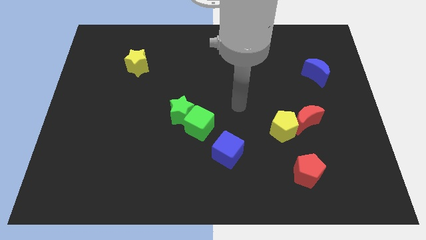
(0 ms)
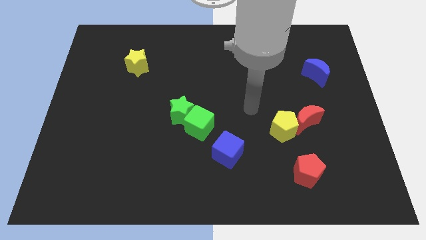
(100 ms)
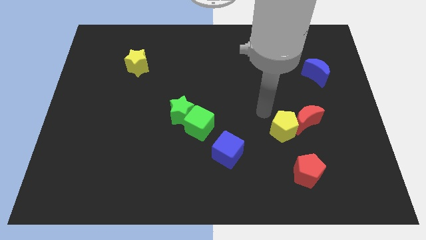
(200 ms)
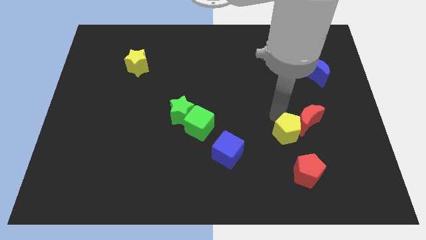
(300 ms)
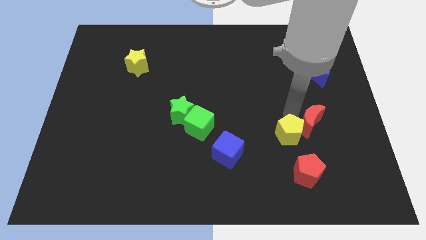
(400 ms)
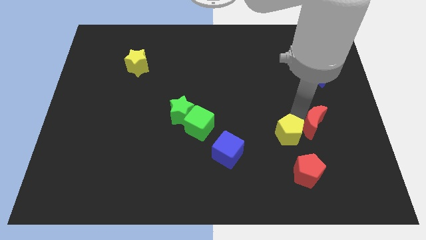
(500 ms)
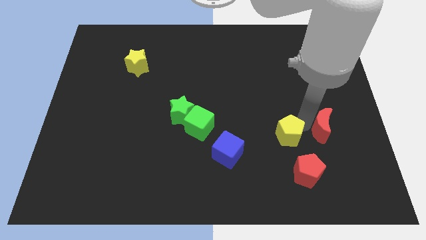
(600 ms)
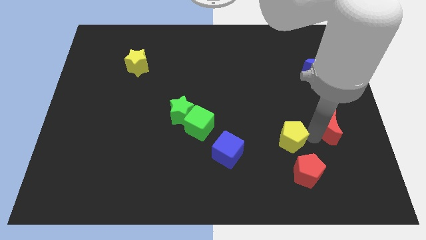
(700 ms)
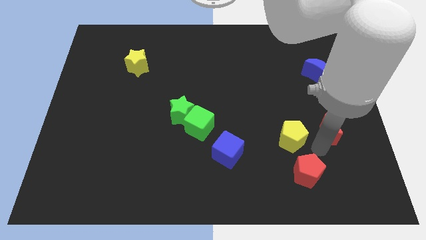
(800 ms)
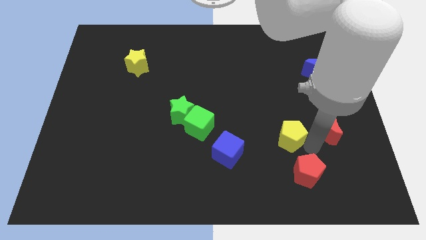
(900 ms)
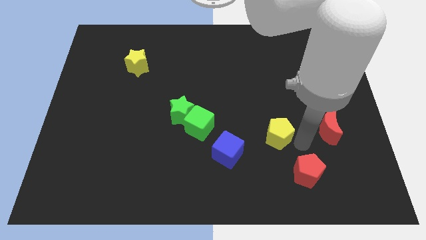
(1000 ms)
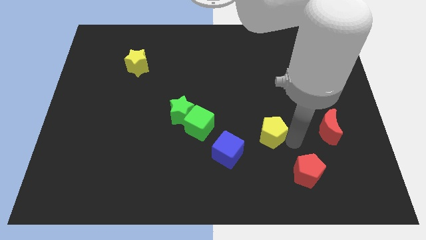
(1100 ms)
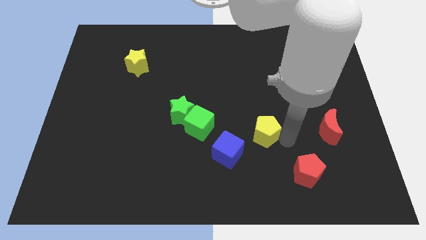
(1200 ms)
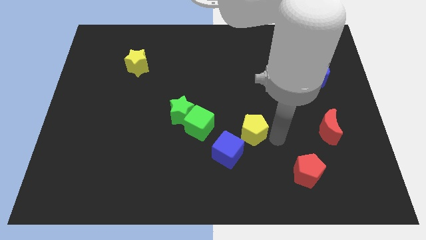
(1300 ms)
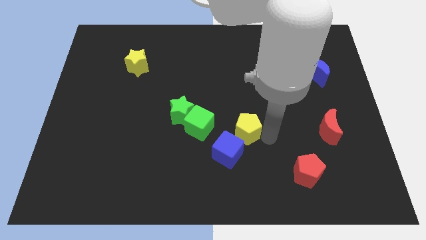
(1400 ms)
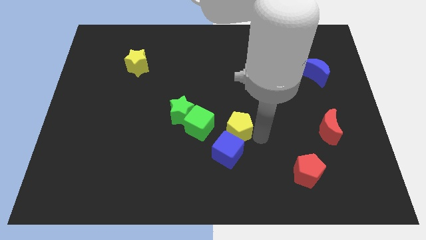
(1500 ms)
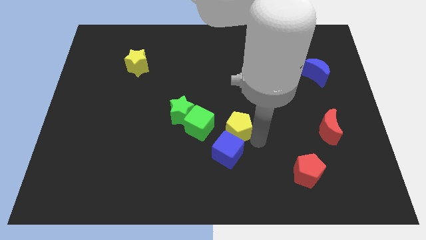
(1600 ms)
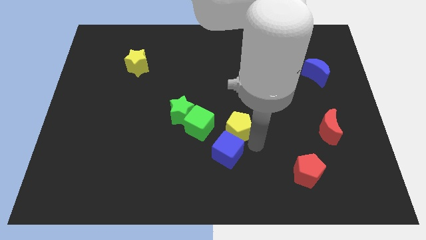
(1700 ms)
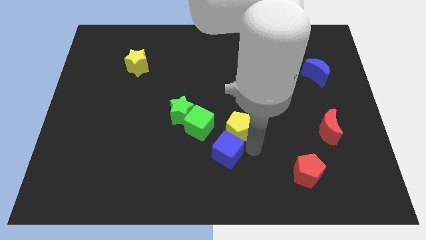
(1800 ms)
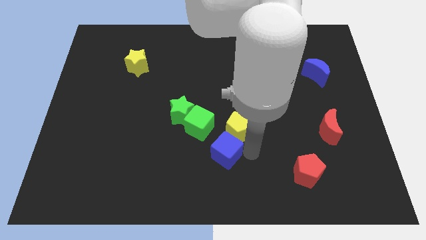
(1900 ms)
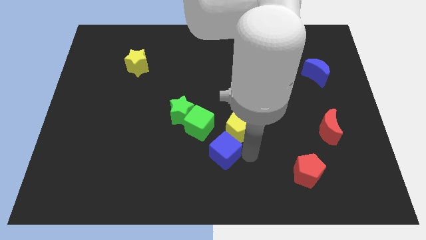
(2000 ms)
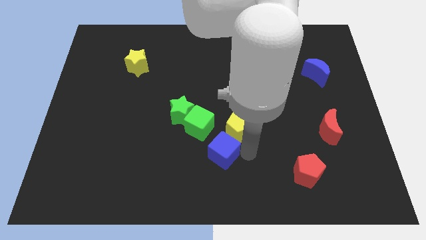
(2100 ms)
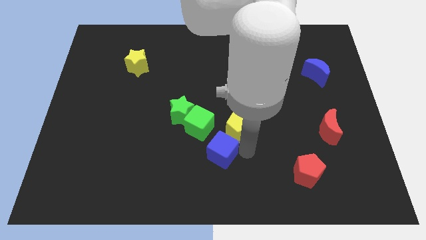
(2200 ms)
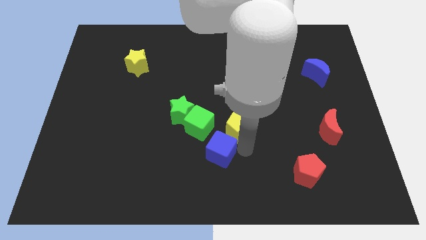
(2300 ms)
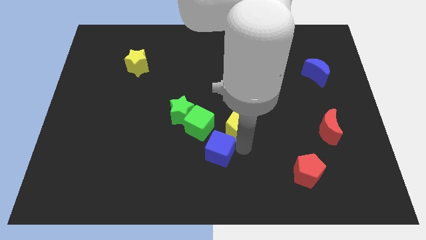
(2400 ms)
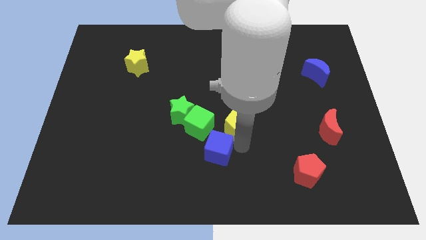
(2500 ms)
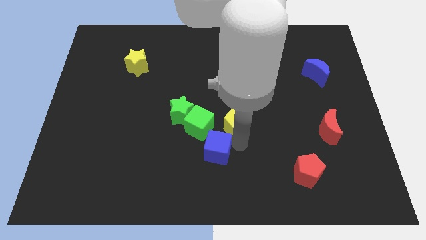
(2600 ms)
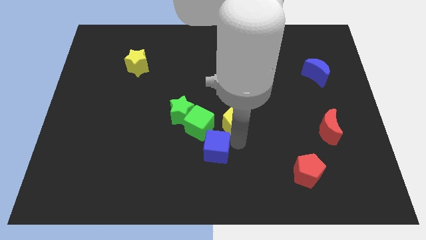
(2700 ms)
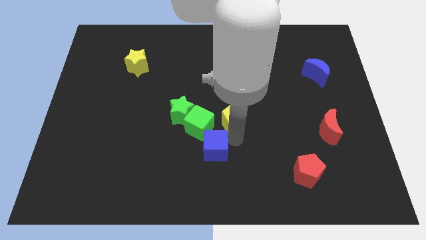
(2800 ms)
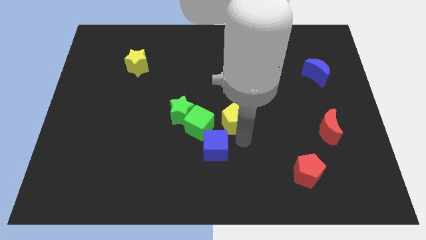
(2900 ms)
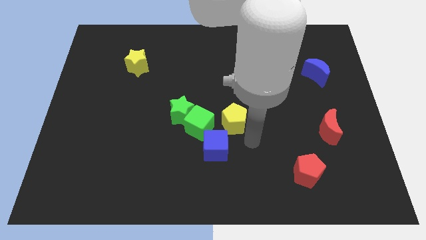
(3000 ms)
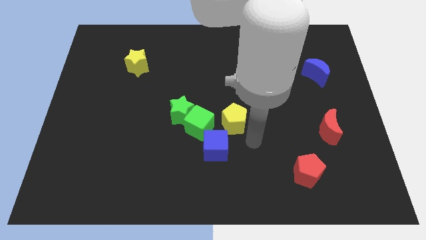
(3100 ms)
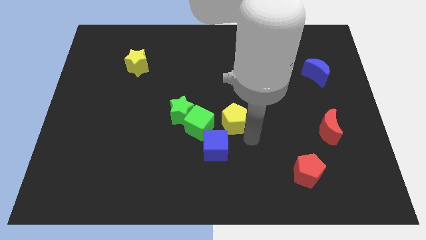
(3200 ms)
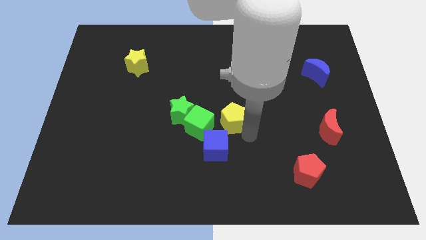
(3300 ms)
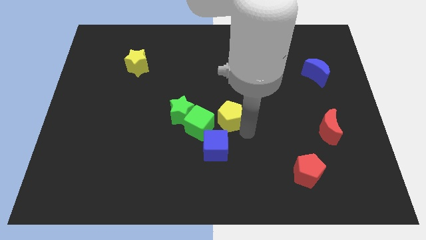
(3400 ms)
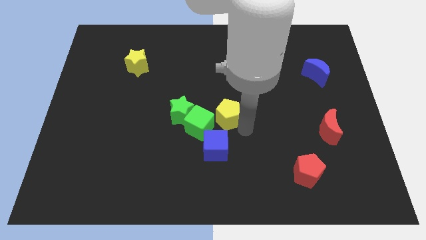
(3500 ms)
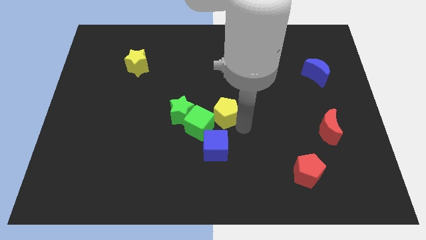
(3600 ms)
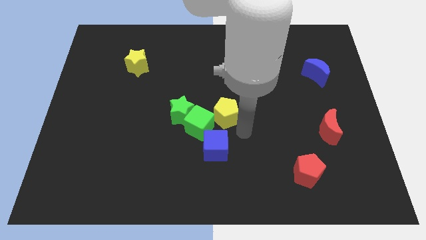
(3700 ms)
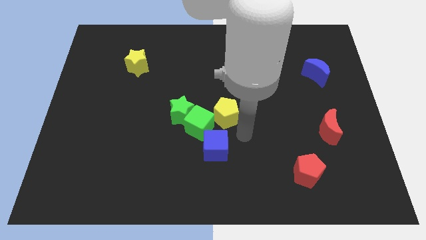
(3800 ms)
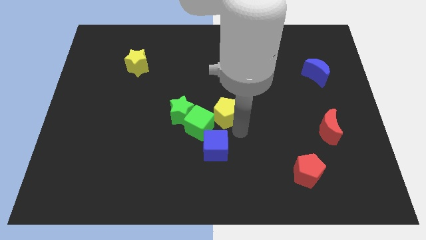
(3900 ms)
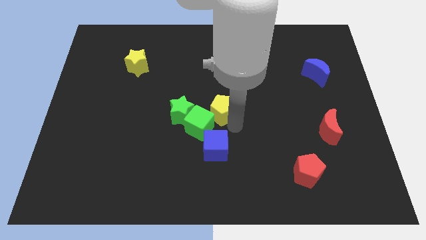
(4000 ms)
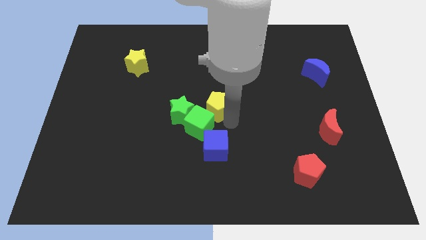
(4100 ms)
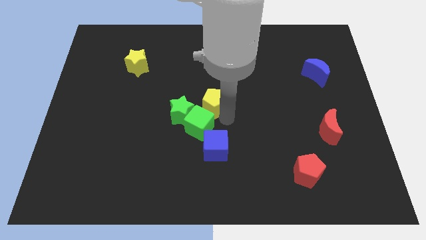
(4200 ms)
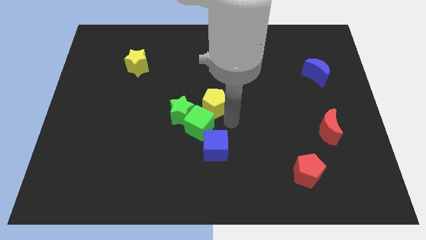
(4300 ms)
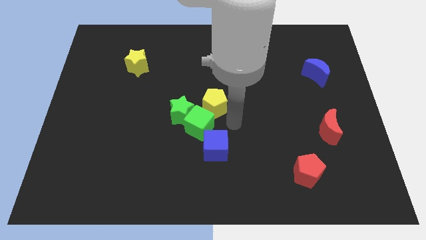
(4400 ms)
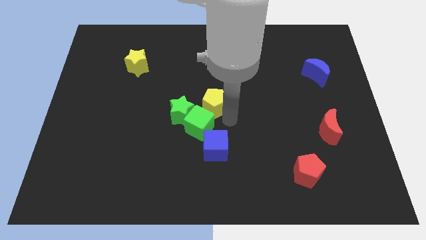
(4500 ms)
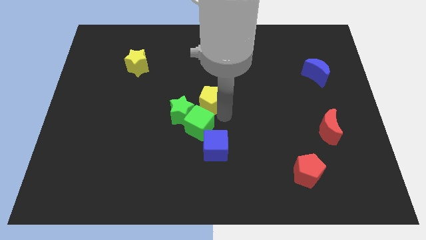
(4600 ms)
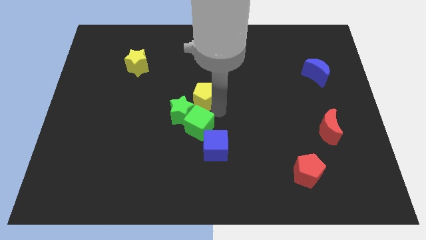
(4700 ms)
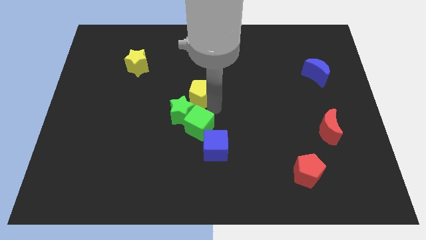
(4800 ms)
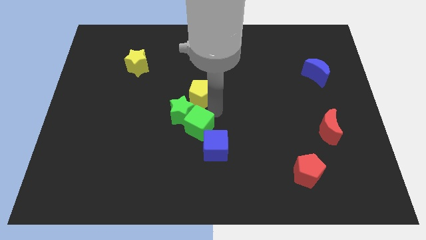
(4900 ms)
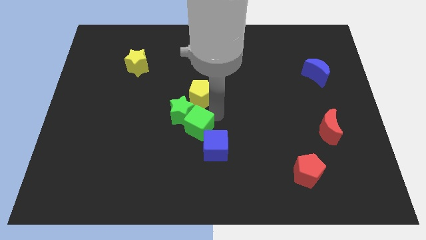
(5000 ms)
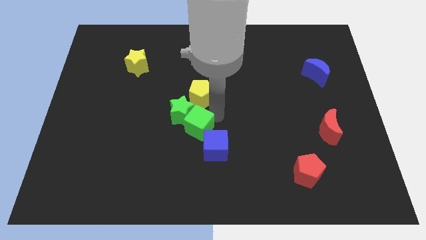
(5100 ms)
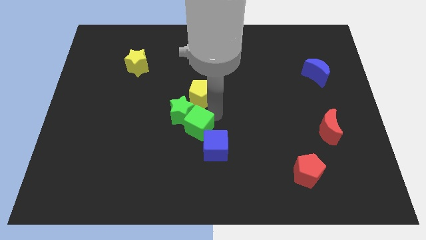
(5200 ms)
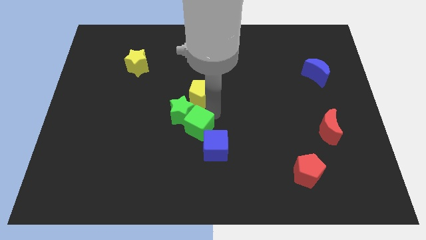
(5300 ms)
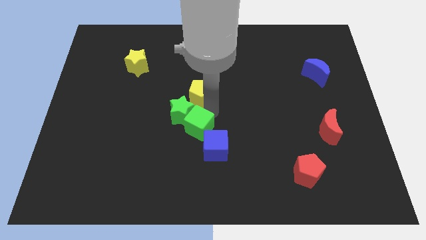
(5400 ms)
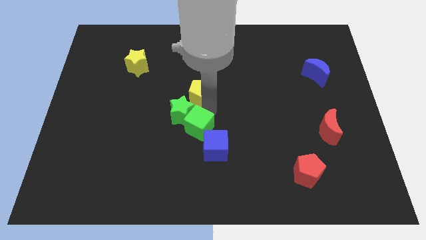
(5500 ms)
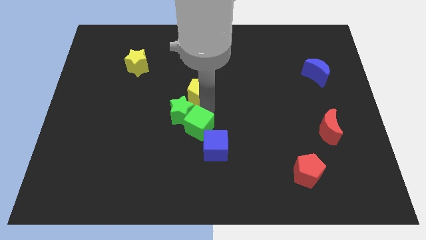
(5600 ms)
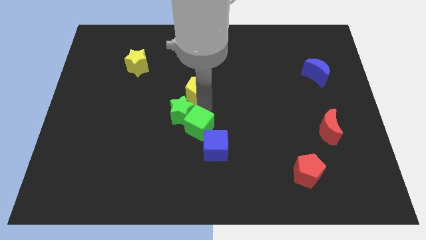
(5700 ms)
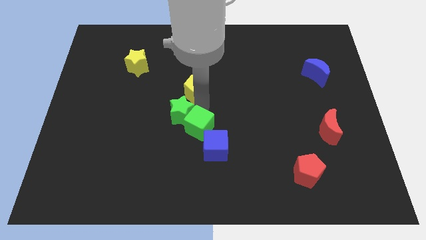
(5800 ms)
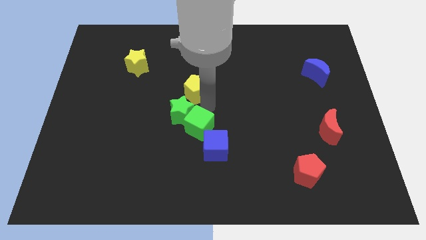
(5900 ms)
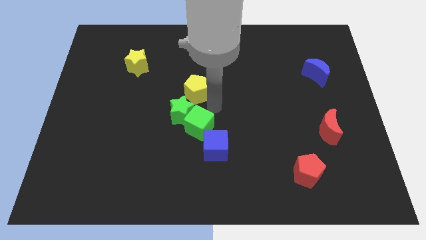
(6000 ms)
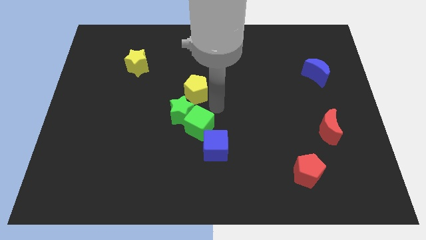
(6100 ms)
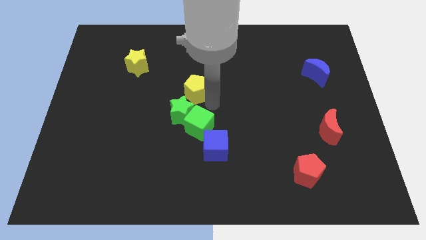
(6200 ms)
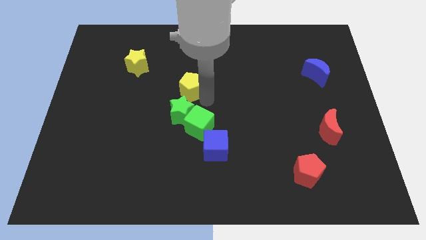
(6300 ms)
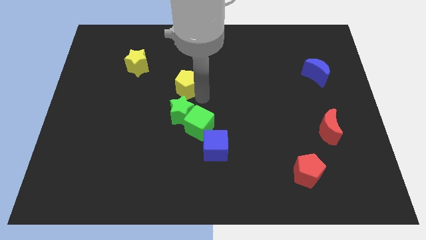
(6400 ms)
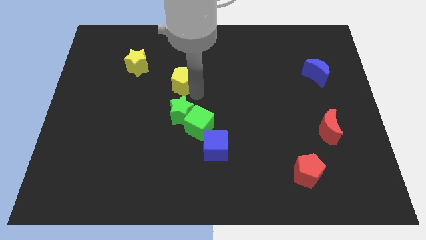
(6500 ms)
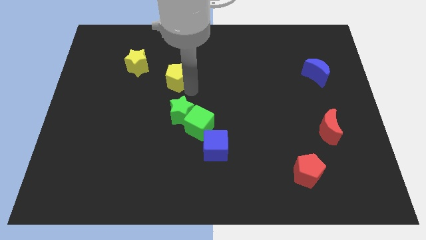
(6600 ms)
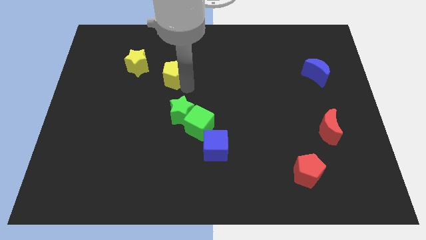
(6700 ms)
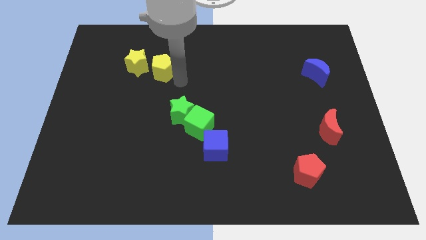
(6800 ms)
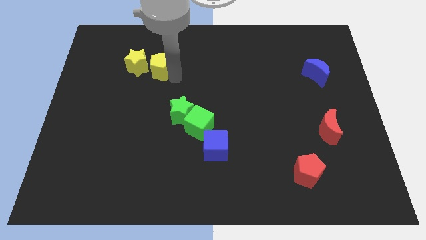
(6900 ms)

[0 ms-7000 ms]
move the yellow pentagon to the yellow star

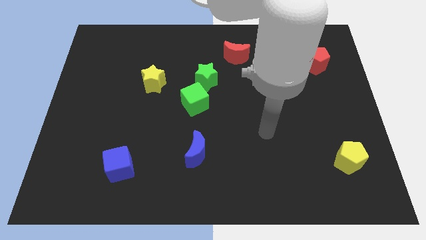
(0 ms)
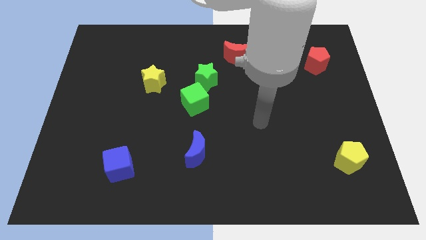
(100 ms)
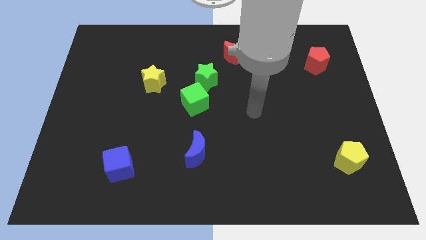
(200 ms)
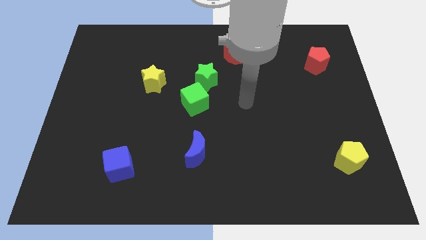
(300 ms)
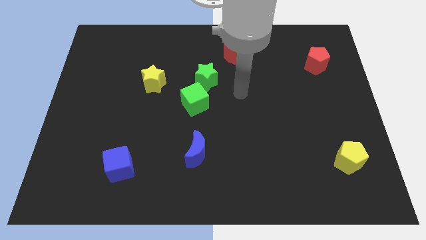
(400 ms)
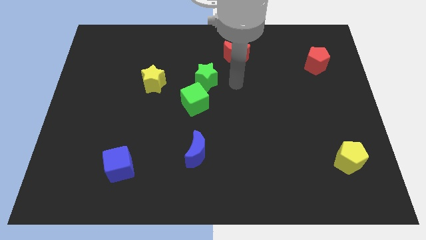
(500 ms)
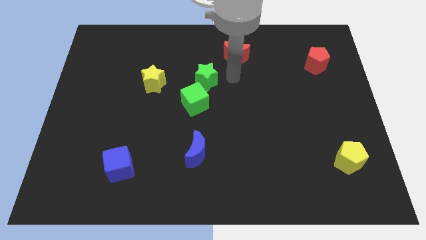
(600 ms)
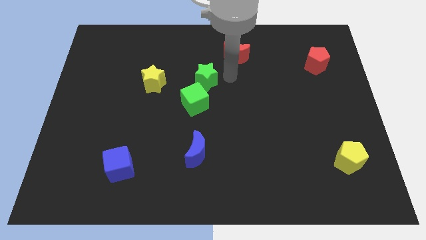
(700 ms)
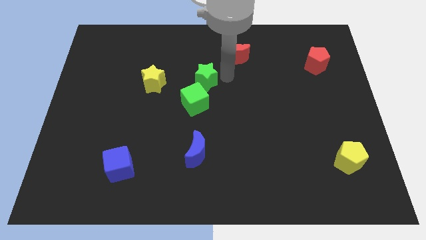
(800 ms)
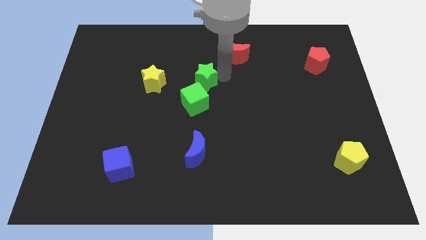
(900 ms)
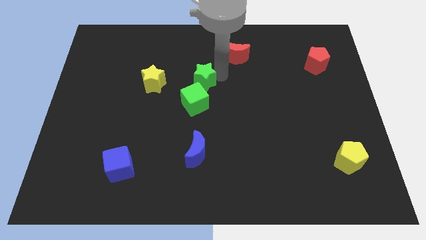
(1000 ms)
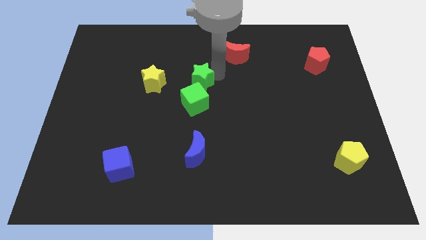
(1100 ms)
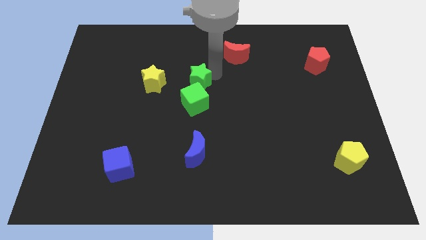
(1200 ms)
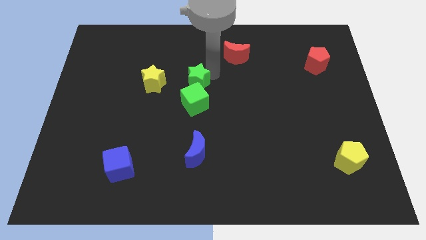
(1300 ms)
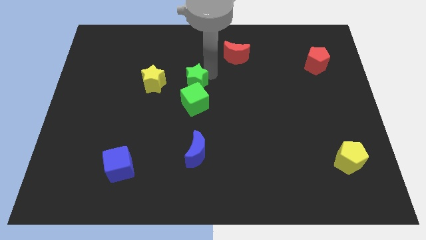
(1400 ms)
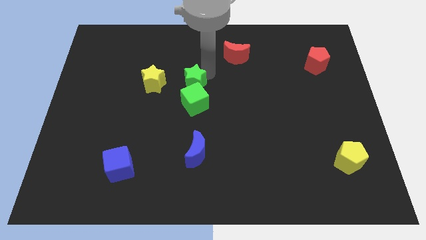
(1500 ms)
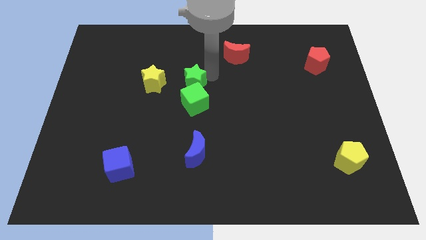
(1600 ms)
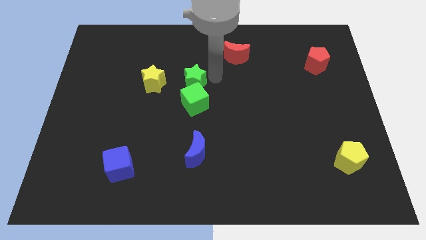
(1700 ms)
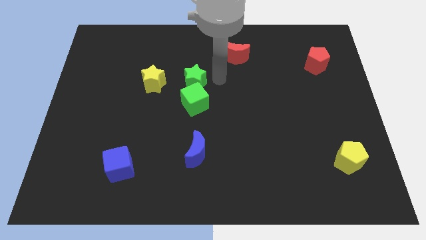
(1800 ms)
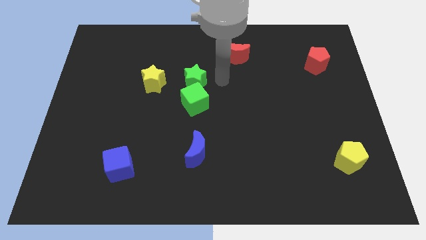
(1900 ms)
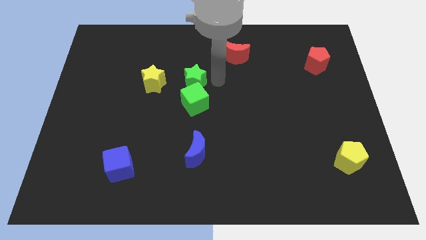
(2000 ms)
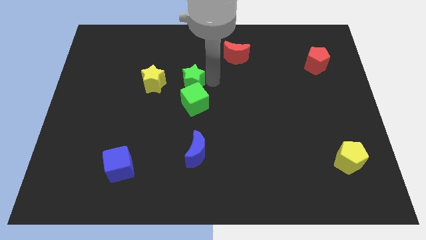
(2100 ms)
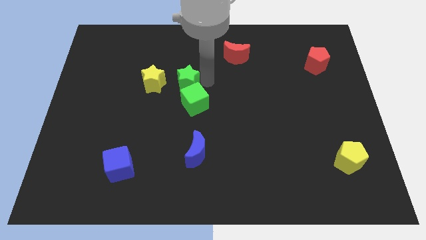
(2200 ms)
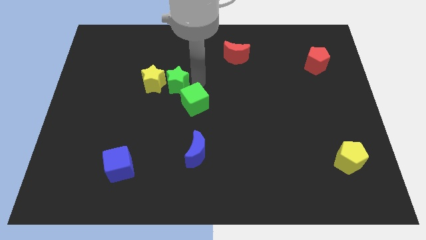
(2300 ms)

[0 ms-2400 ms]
put the green star next to the yellow star
